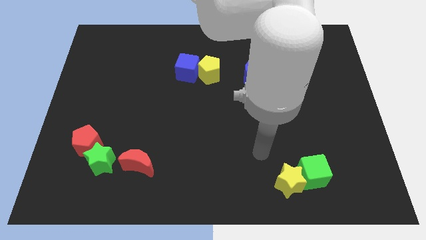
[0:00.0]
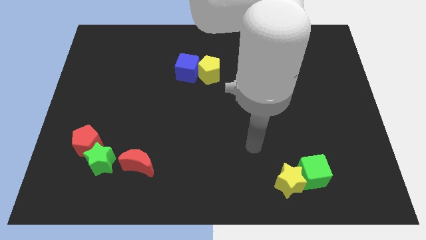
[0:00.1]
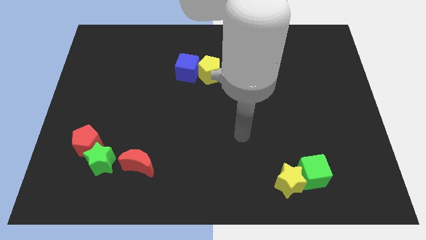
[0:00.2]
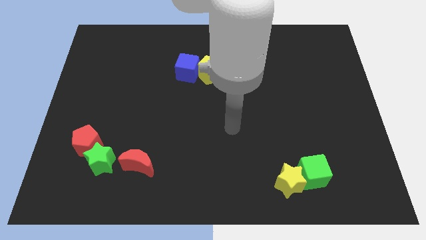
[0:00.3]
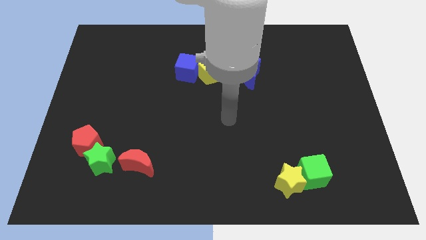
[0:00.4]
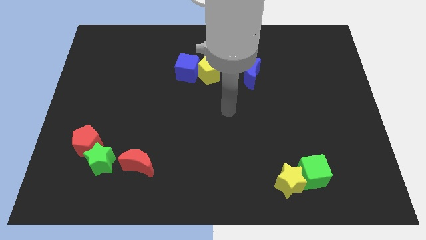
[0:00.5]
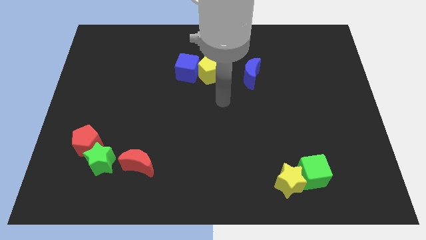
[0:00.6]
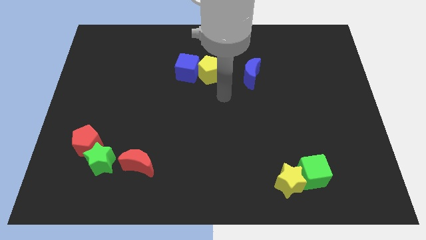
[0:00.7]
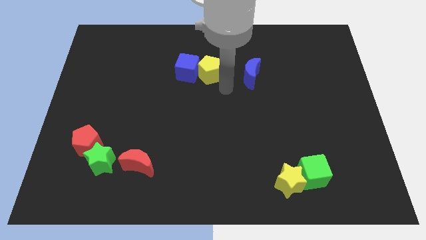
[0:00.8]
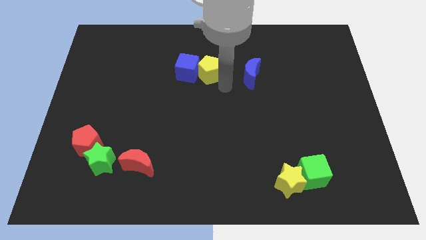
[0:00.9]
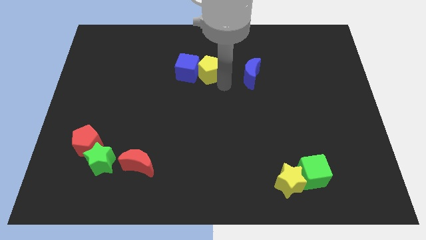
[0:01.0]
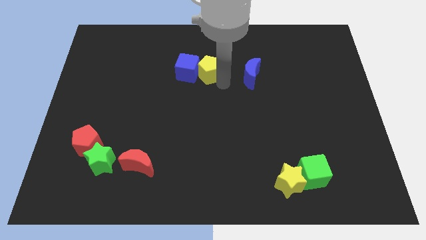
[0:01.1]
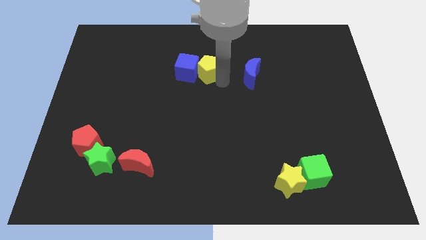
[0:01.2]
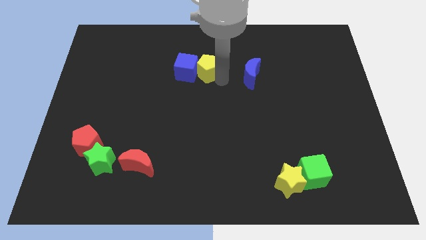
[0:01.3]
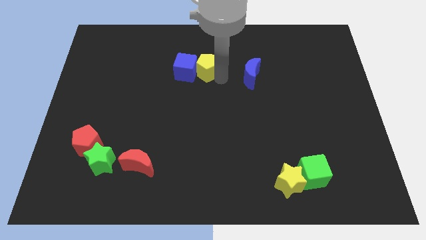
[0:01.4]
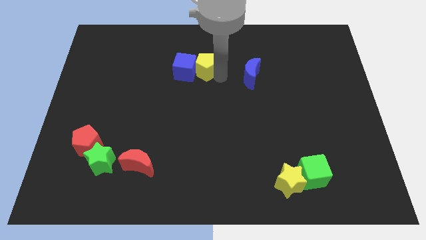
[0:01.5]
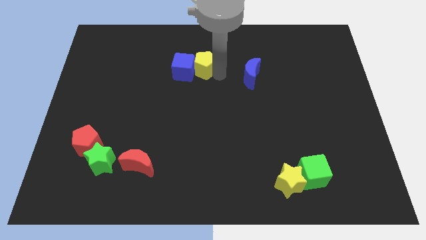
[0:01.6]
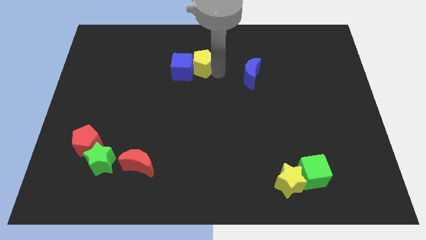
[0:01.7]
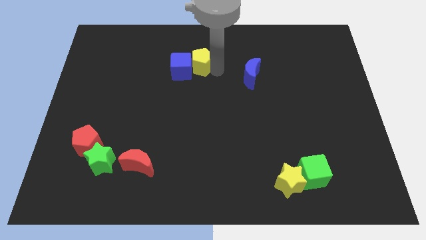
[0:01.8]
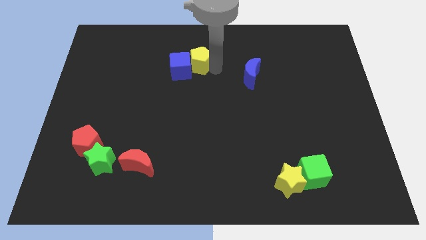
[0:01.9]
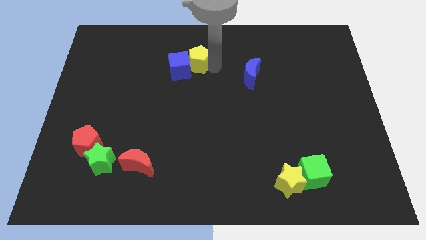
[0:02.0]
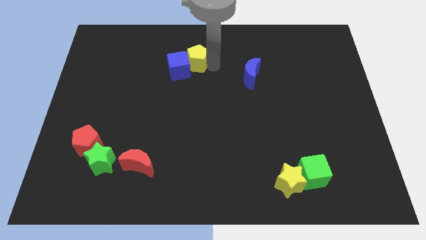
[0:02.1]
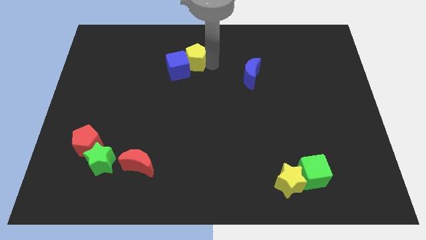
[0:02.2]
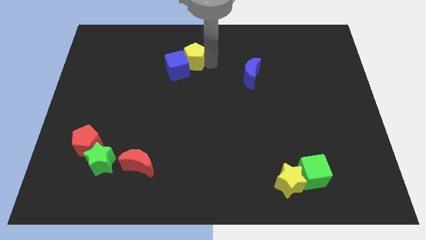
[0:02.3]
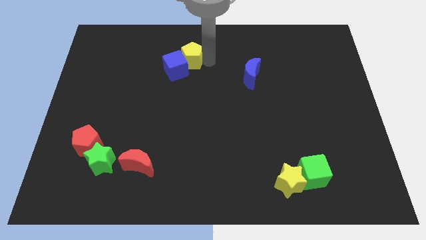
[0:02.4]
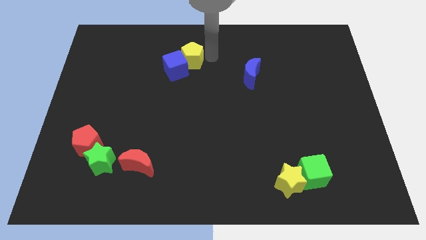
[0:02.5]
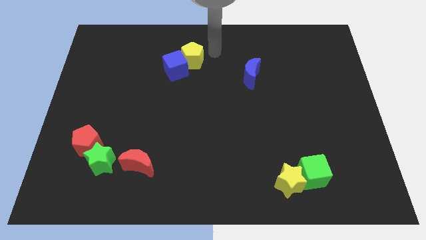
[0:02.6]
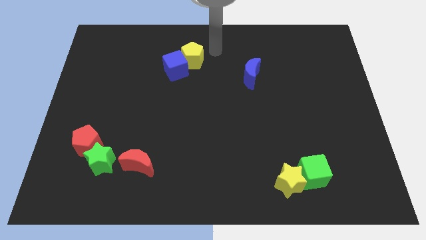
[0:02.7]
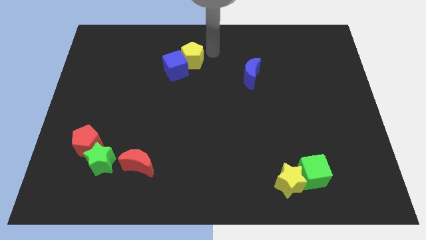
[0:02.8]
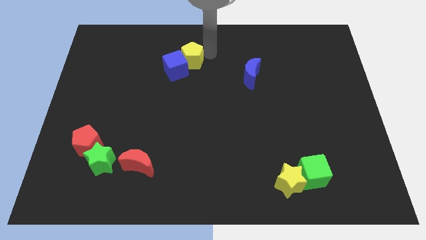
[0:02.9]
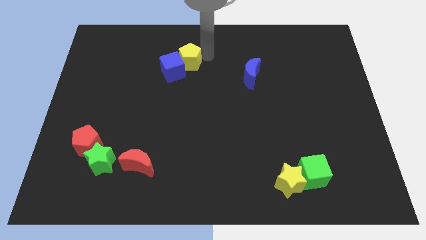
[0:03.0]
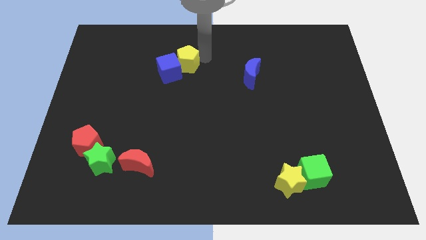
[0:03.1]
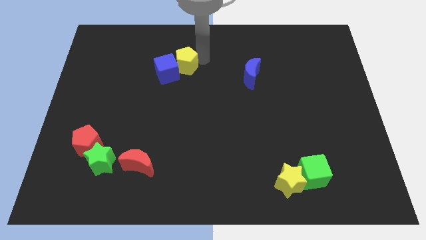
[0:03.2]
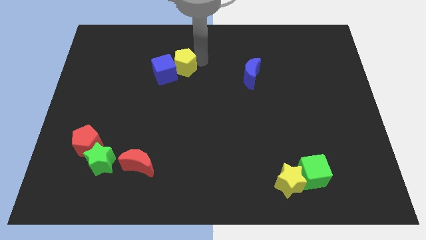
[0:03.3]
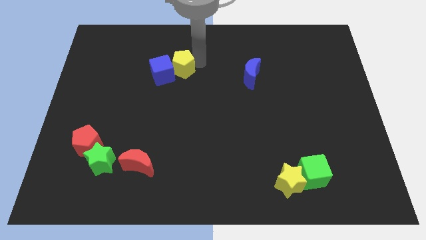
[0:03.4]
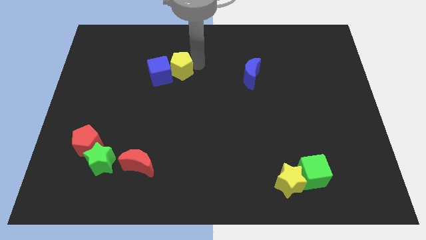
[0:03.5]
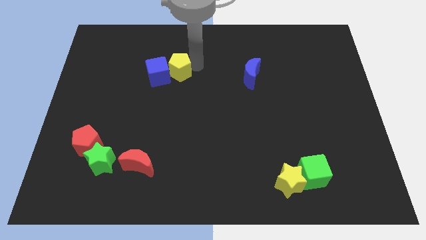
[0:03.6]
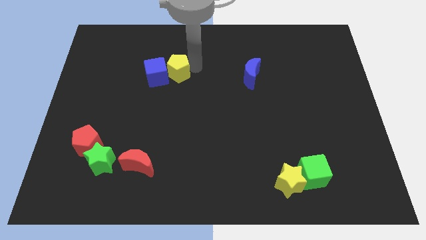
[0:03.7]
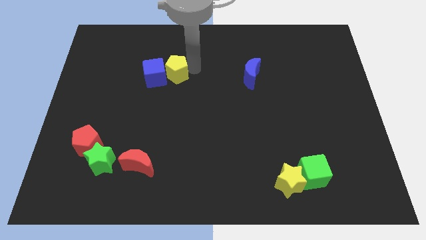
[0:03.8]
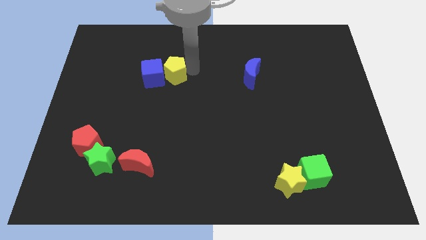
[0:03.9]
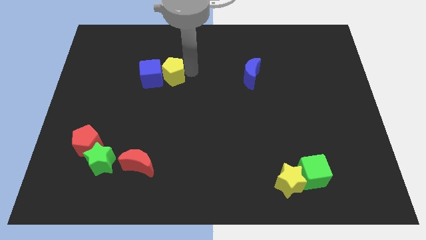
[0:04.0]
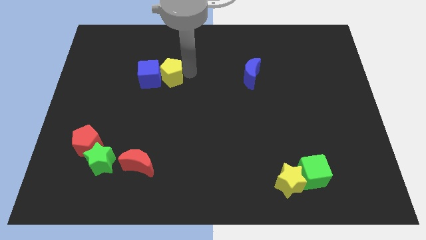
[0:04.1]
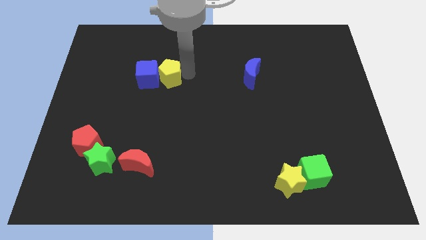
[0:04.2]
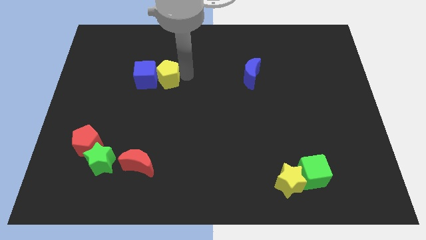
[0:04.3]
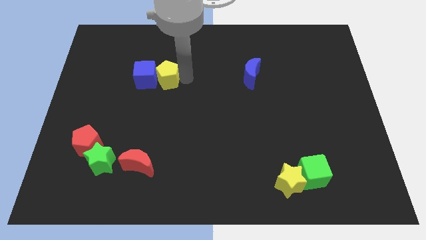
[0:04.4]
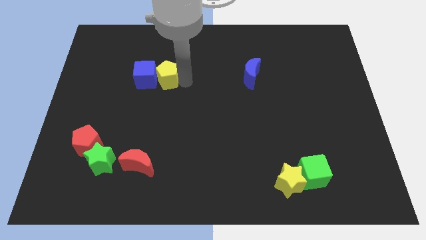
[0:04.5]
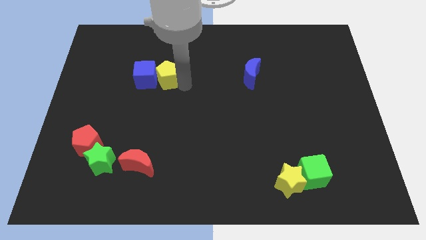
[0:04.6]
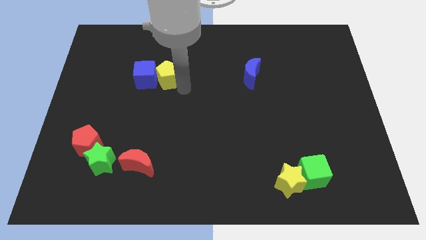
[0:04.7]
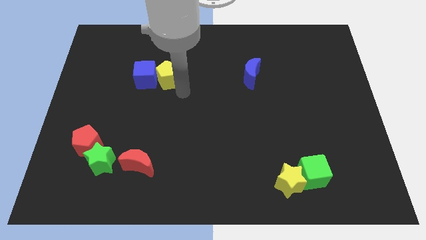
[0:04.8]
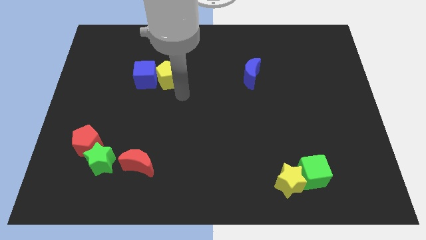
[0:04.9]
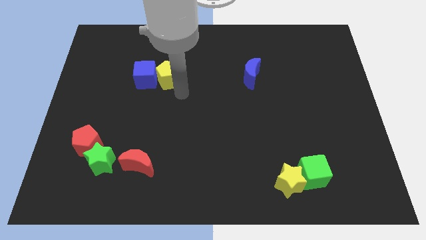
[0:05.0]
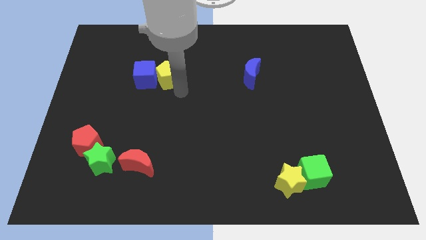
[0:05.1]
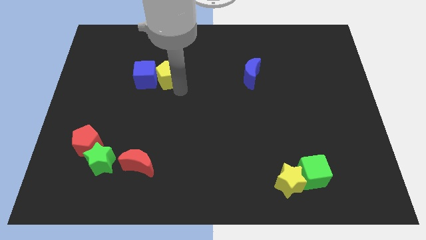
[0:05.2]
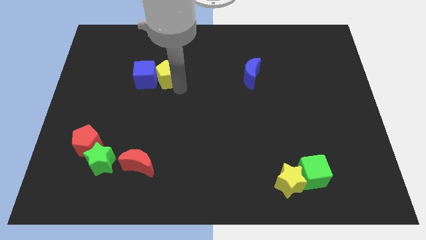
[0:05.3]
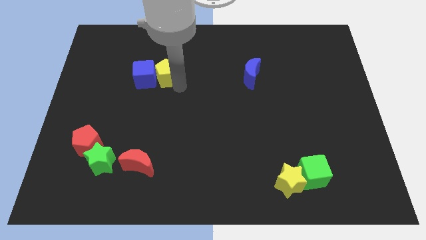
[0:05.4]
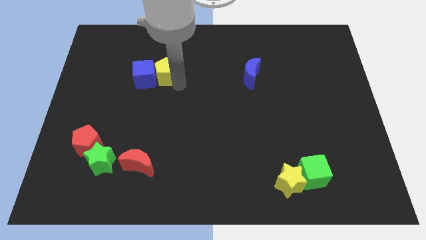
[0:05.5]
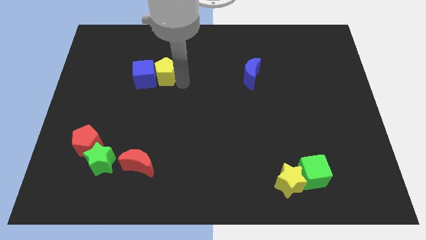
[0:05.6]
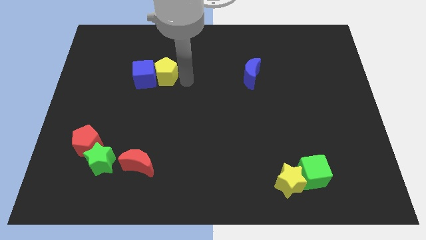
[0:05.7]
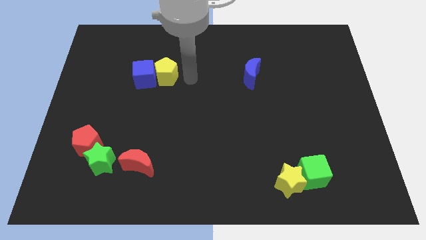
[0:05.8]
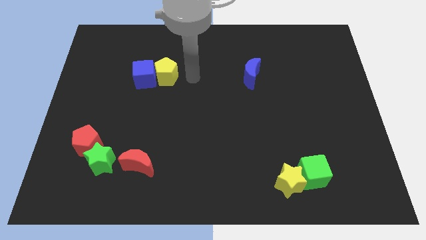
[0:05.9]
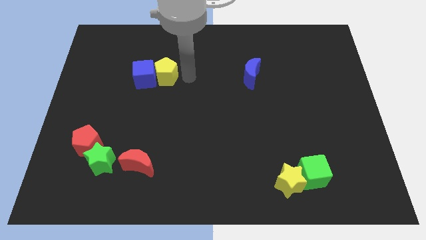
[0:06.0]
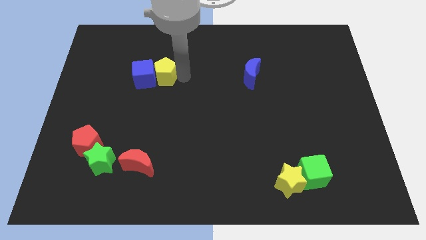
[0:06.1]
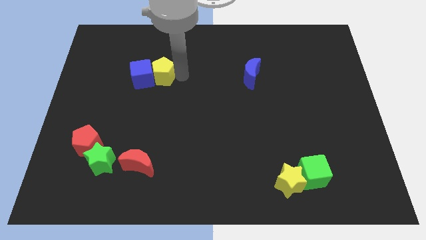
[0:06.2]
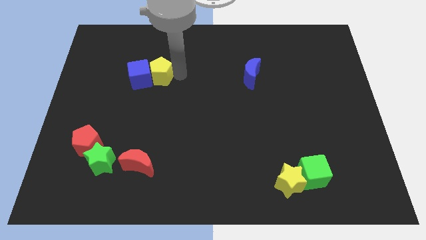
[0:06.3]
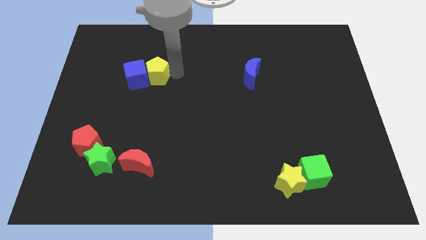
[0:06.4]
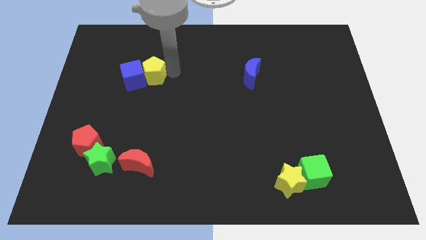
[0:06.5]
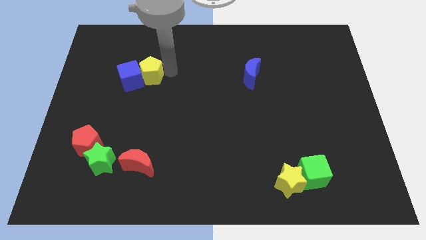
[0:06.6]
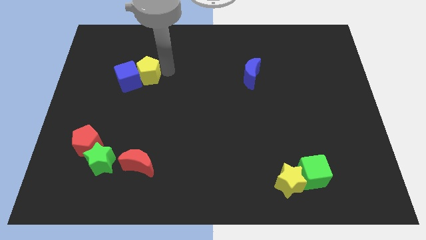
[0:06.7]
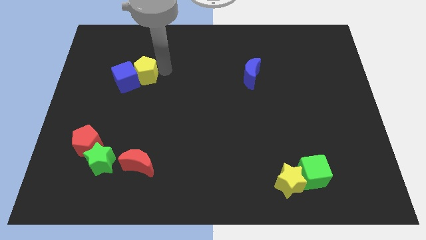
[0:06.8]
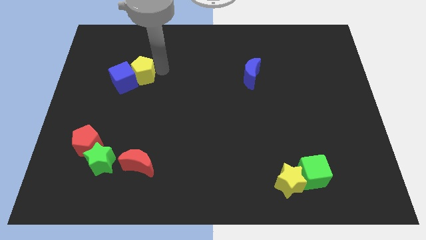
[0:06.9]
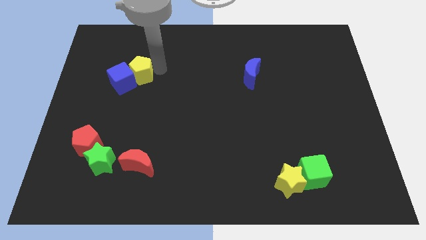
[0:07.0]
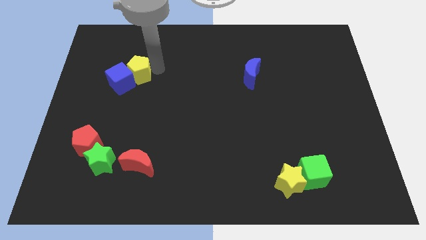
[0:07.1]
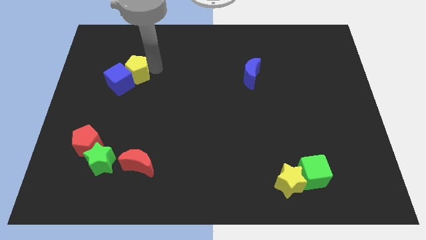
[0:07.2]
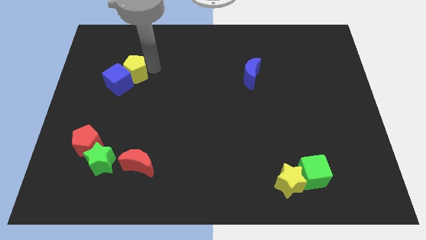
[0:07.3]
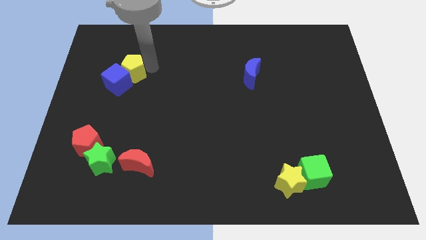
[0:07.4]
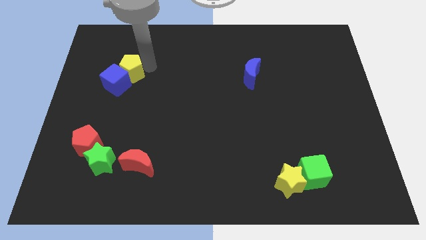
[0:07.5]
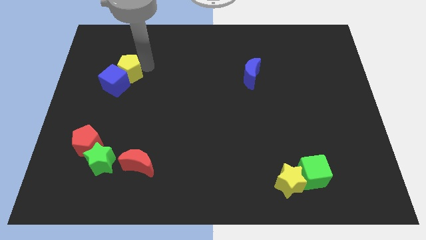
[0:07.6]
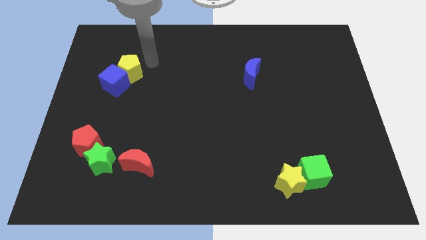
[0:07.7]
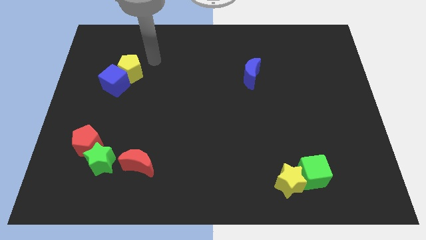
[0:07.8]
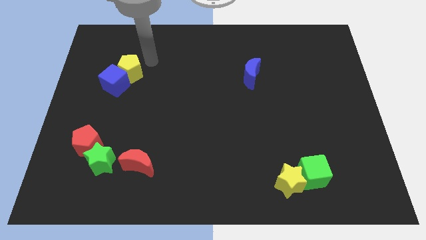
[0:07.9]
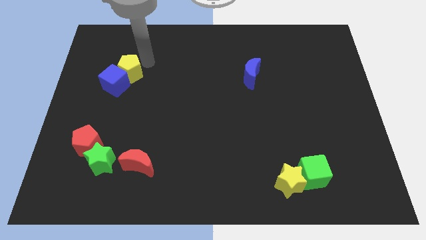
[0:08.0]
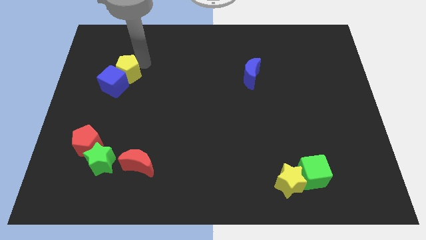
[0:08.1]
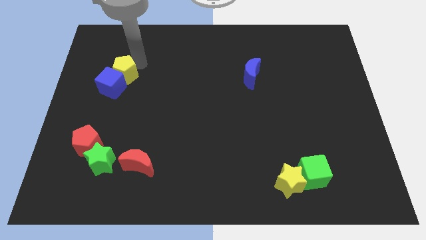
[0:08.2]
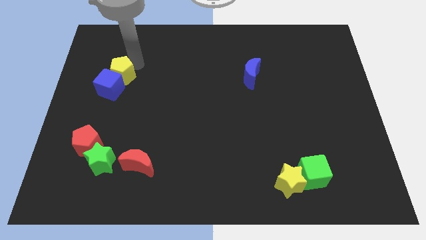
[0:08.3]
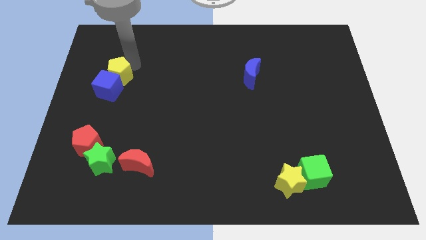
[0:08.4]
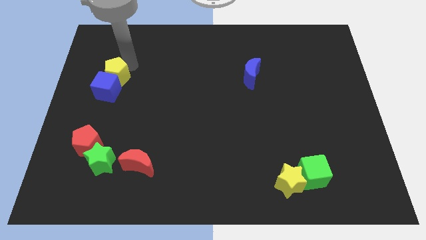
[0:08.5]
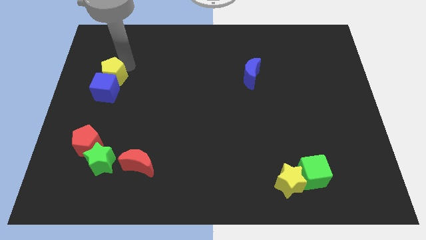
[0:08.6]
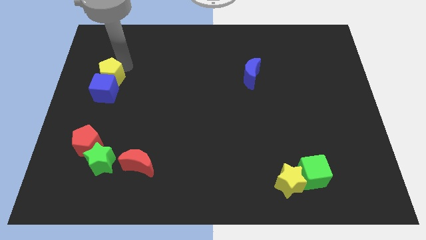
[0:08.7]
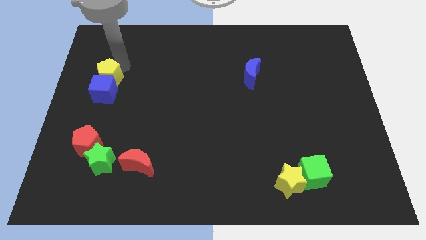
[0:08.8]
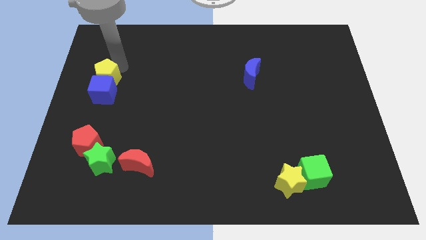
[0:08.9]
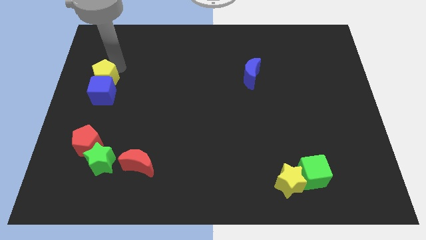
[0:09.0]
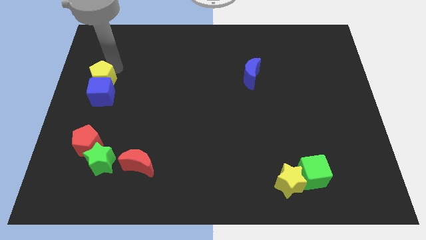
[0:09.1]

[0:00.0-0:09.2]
put the yellow pentagon to the left side of the board
